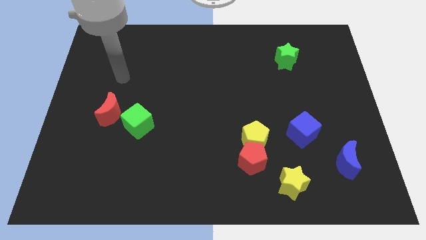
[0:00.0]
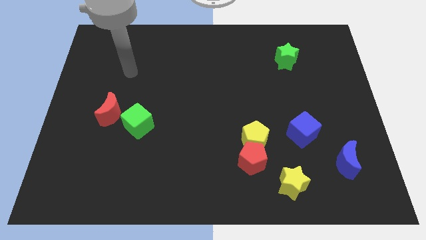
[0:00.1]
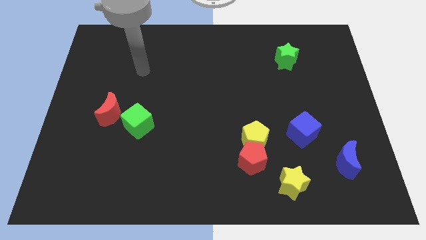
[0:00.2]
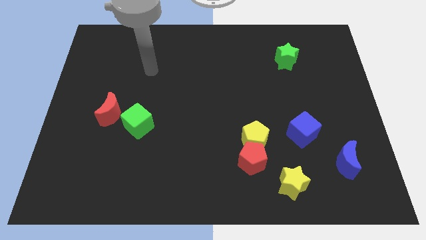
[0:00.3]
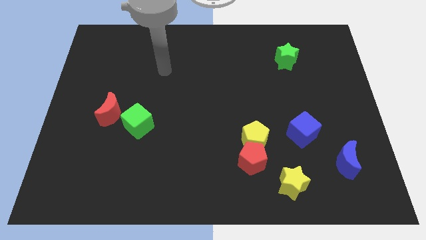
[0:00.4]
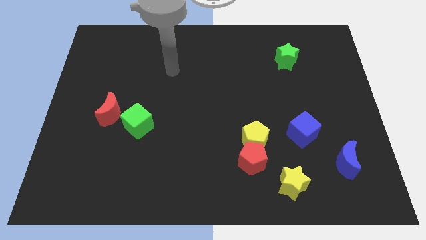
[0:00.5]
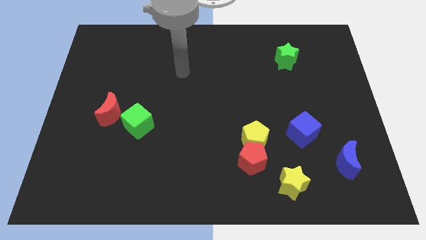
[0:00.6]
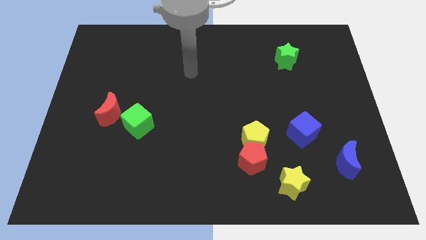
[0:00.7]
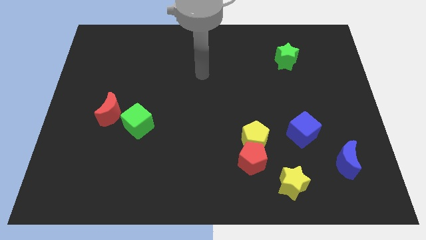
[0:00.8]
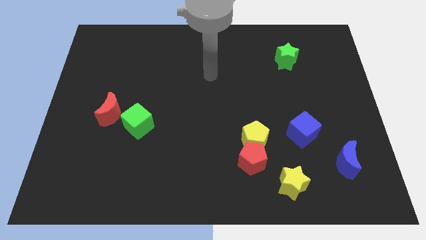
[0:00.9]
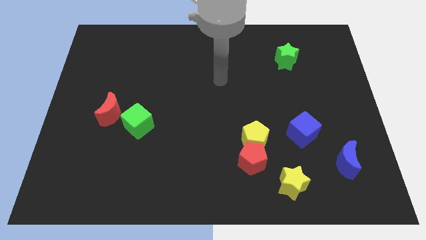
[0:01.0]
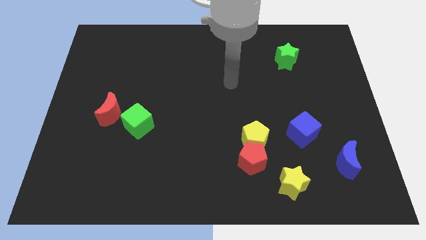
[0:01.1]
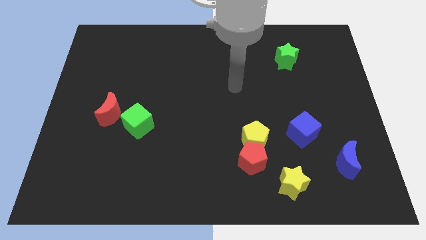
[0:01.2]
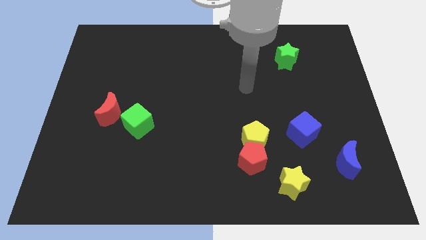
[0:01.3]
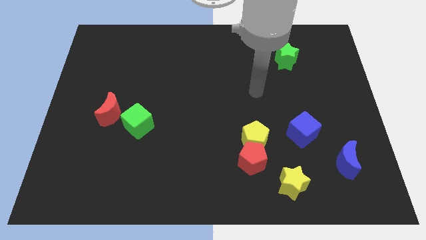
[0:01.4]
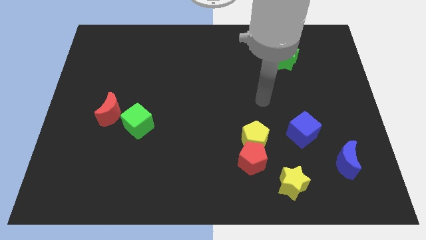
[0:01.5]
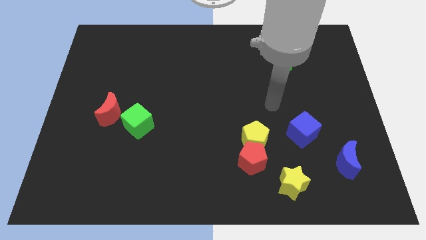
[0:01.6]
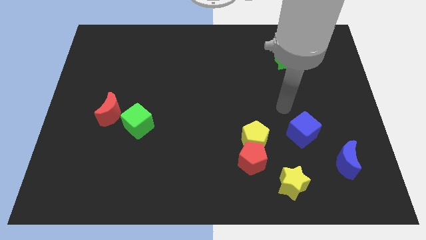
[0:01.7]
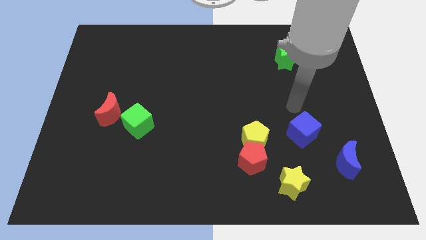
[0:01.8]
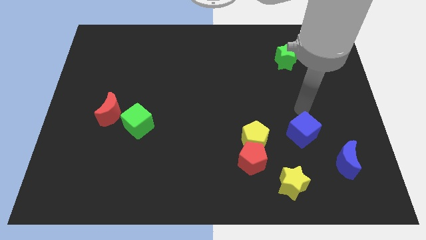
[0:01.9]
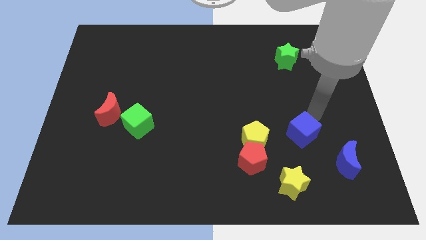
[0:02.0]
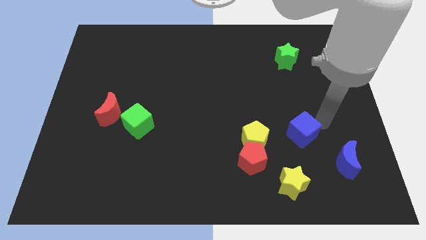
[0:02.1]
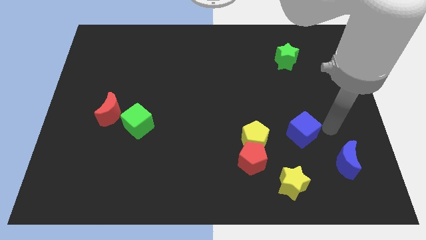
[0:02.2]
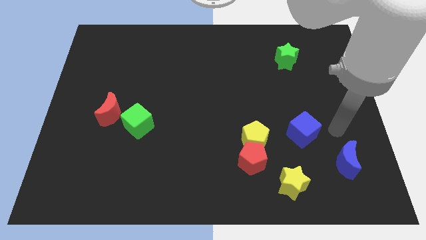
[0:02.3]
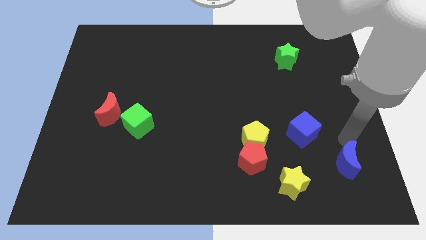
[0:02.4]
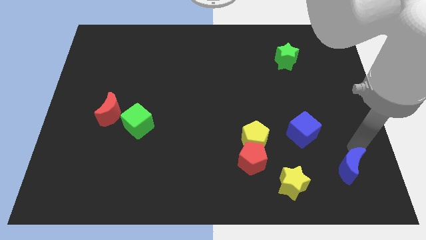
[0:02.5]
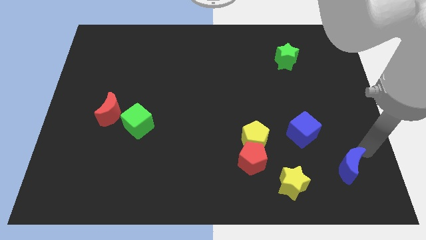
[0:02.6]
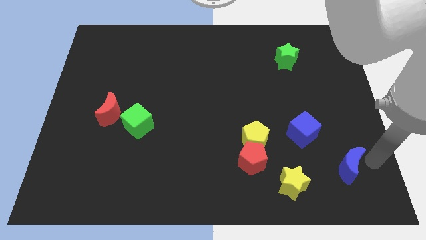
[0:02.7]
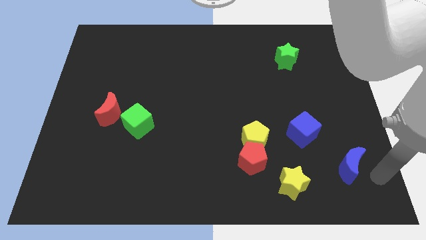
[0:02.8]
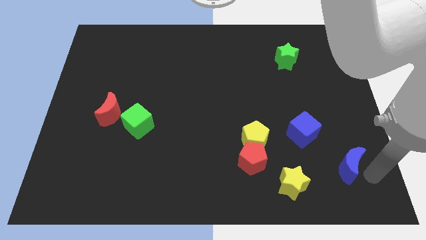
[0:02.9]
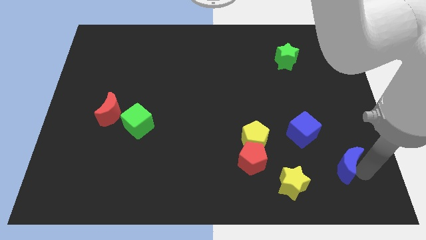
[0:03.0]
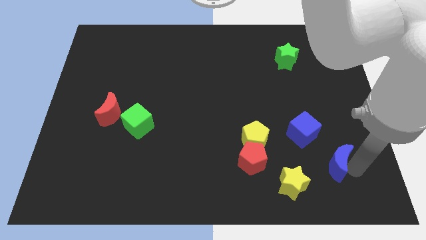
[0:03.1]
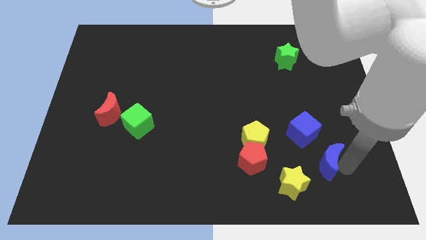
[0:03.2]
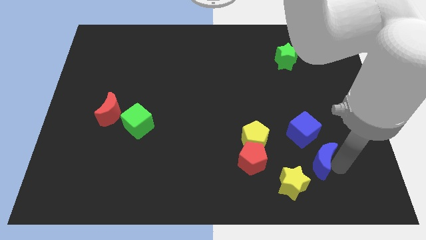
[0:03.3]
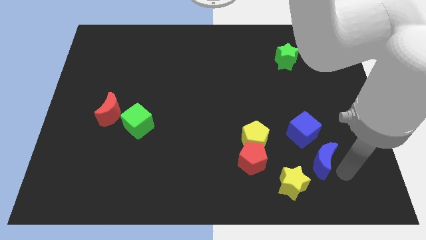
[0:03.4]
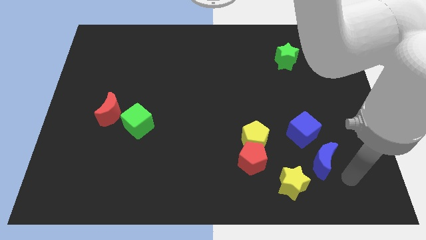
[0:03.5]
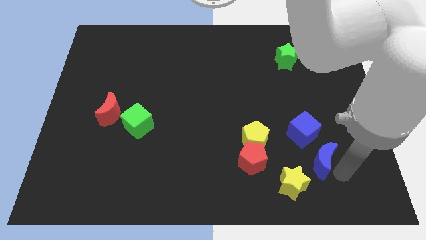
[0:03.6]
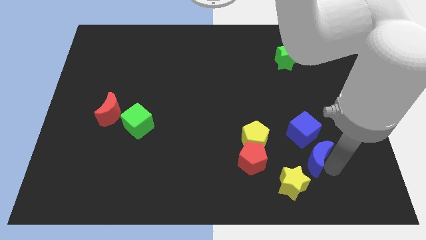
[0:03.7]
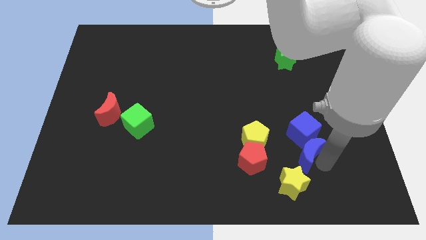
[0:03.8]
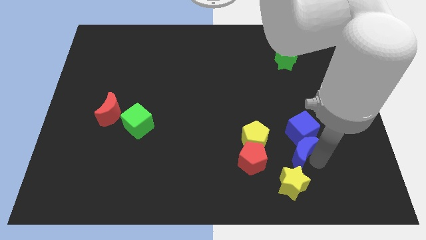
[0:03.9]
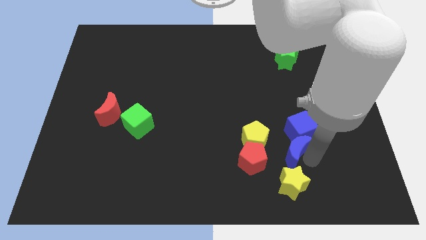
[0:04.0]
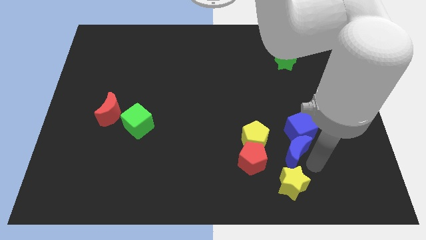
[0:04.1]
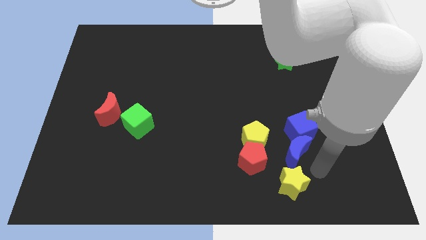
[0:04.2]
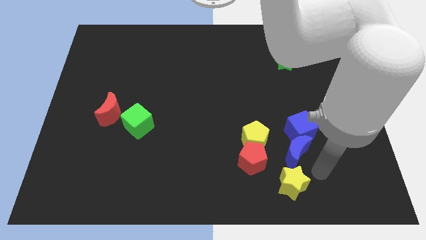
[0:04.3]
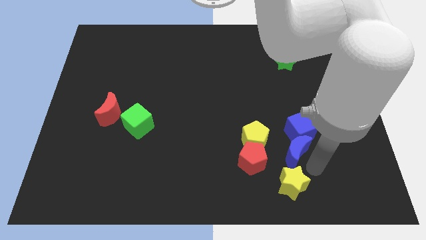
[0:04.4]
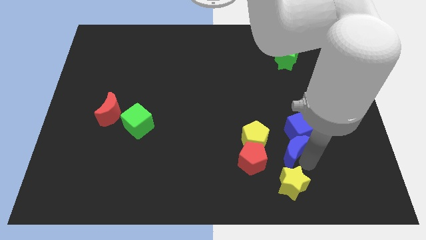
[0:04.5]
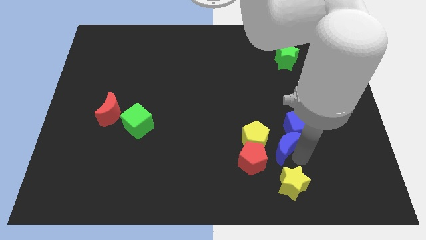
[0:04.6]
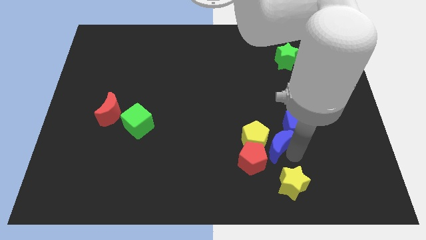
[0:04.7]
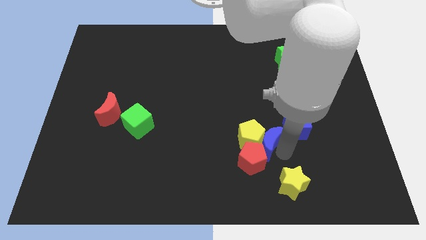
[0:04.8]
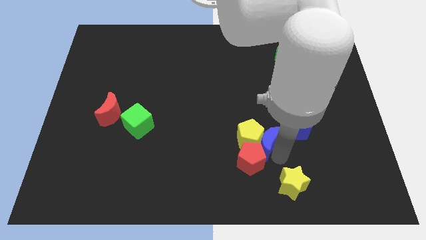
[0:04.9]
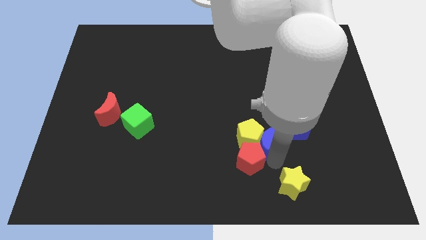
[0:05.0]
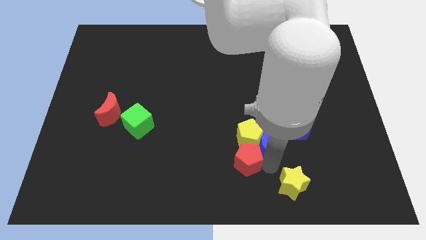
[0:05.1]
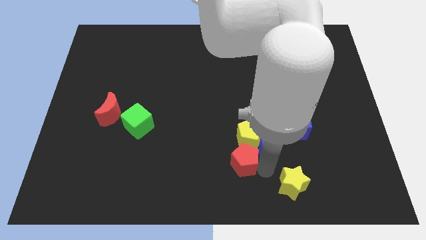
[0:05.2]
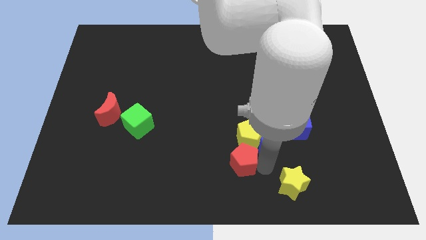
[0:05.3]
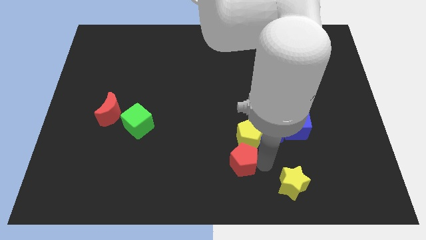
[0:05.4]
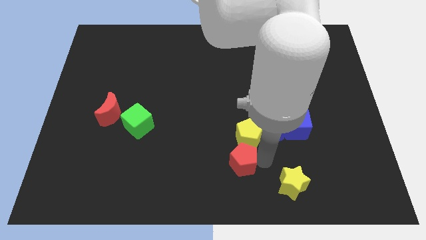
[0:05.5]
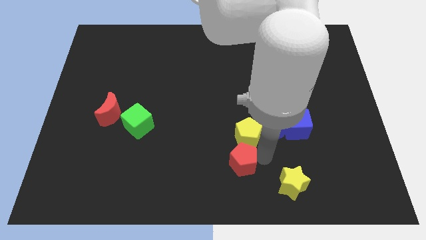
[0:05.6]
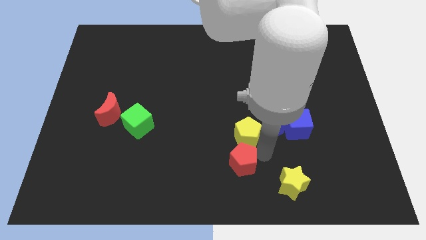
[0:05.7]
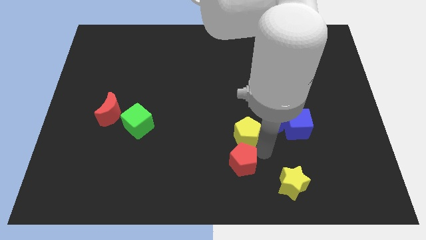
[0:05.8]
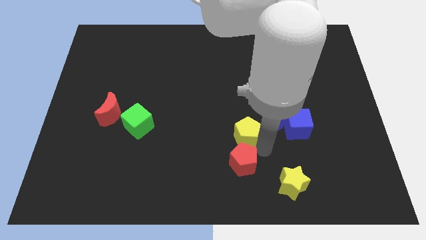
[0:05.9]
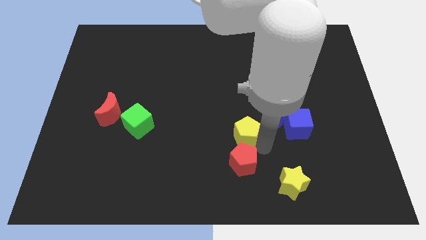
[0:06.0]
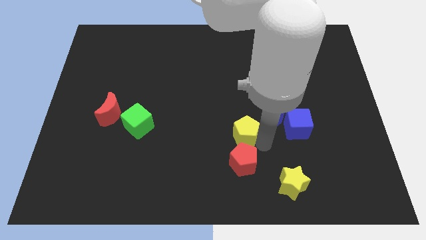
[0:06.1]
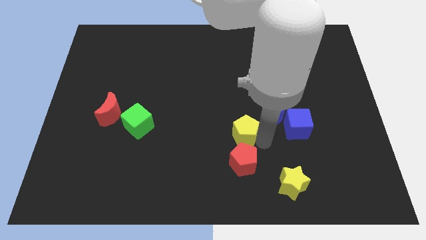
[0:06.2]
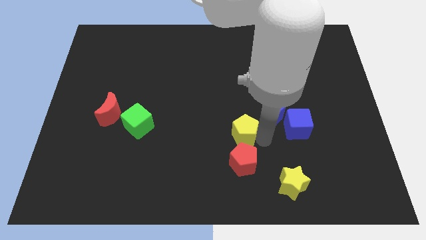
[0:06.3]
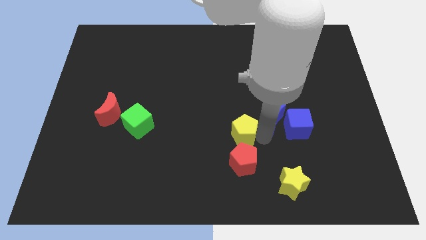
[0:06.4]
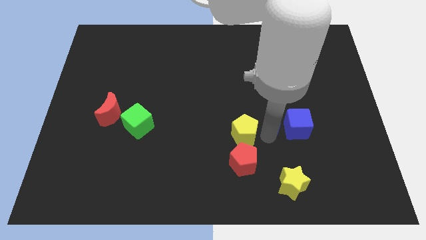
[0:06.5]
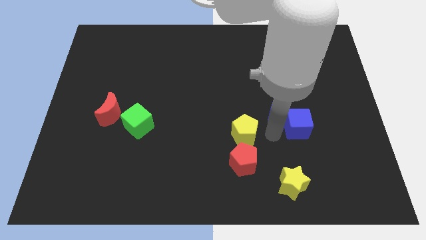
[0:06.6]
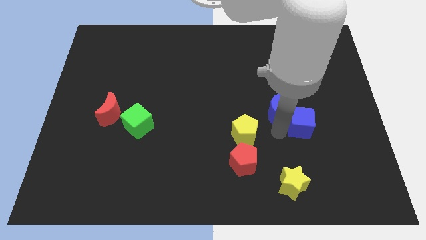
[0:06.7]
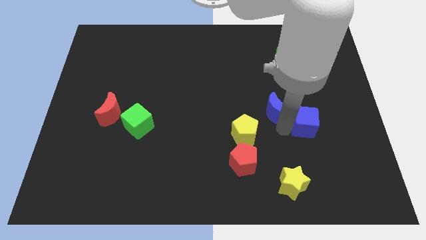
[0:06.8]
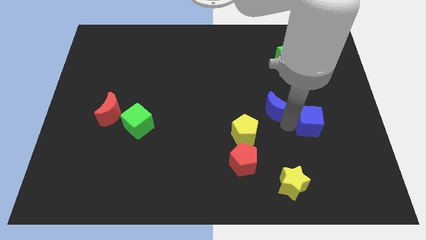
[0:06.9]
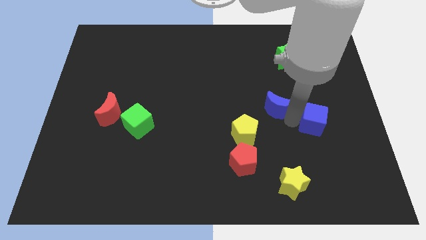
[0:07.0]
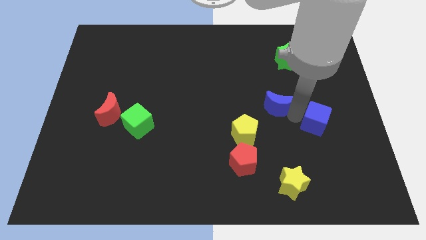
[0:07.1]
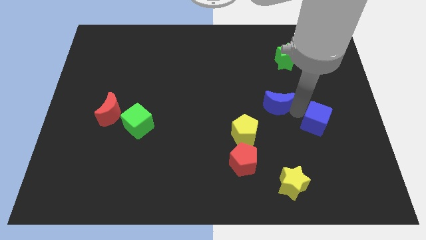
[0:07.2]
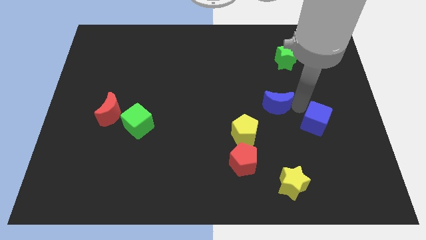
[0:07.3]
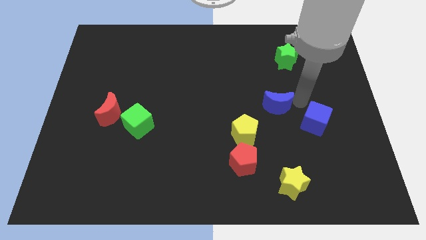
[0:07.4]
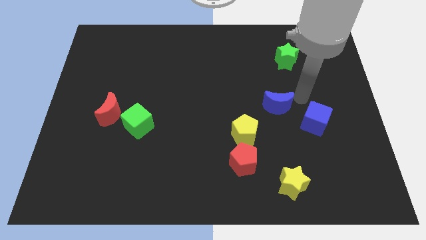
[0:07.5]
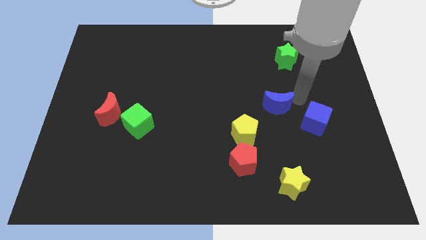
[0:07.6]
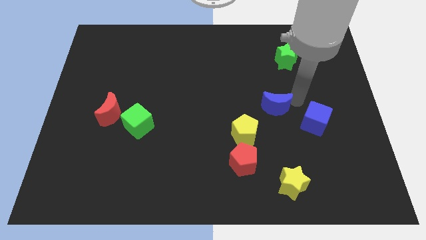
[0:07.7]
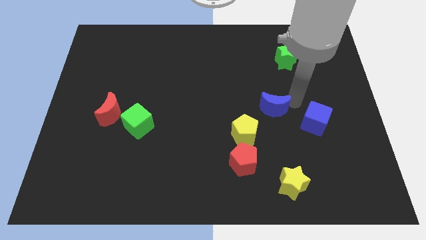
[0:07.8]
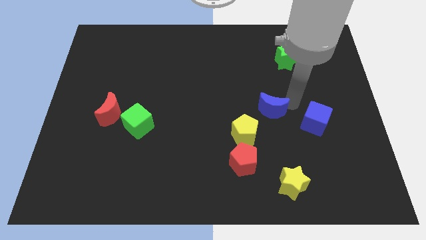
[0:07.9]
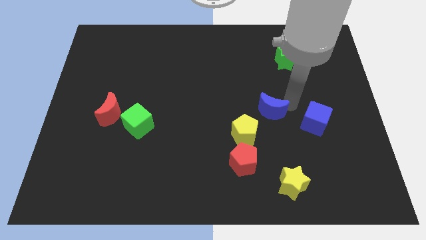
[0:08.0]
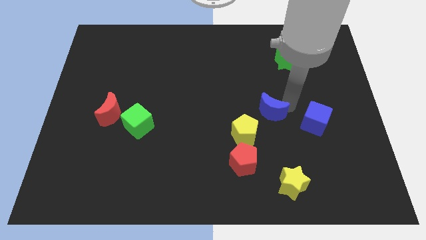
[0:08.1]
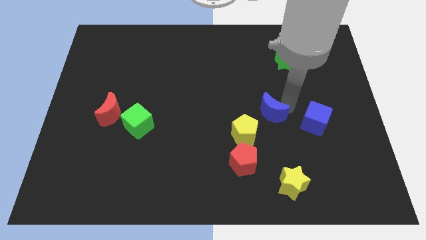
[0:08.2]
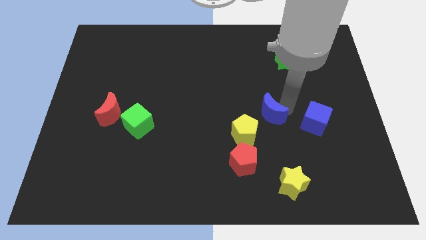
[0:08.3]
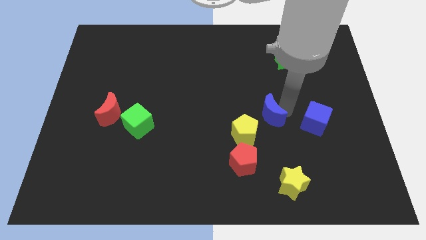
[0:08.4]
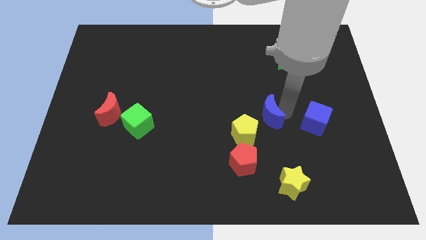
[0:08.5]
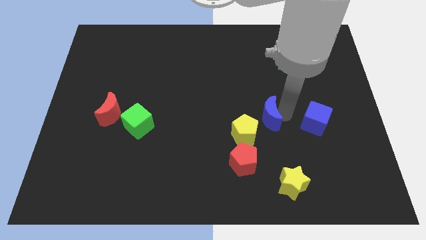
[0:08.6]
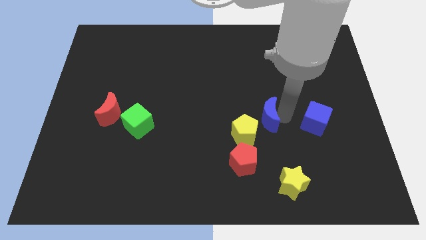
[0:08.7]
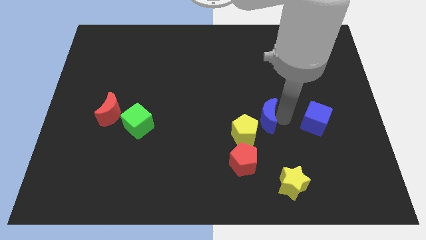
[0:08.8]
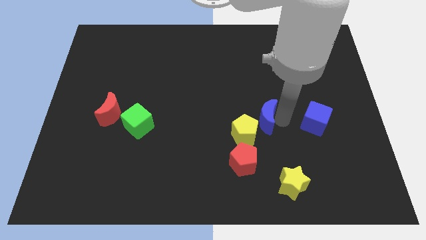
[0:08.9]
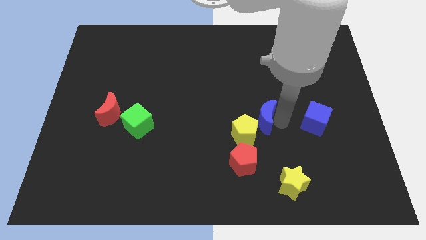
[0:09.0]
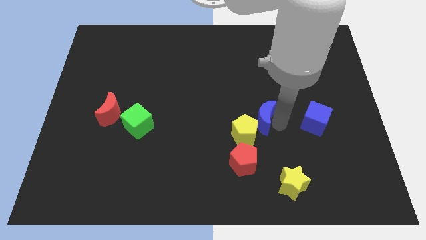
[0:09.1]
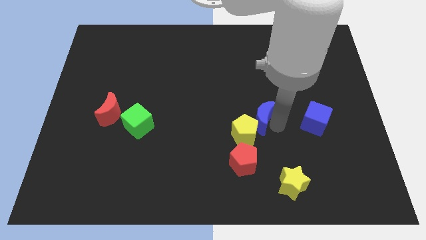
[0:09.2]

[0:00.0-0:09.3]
slide the blue moon to the middle of the board
